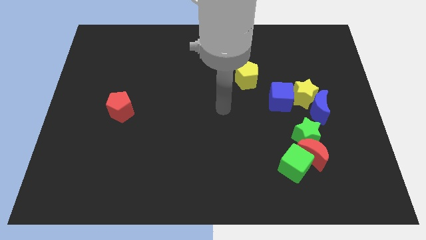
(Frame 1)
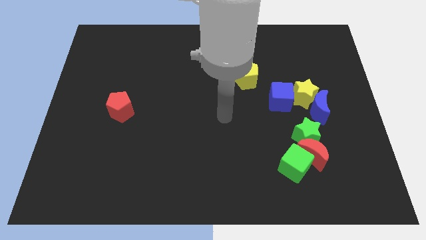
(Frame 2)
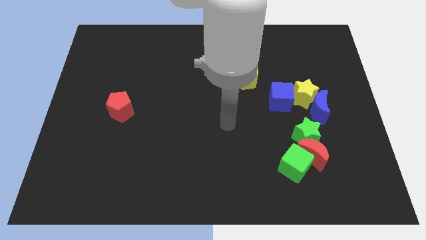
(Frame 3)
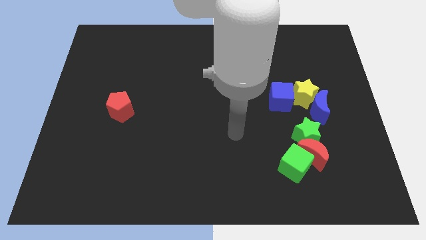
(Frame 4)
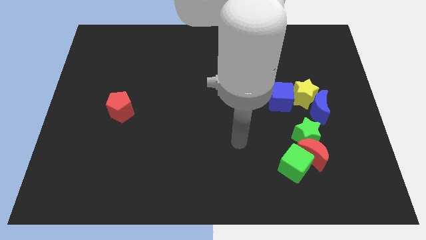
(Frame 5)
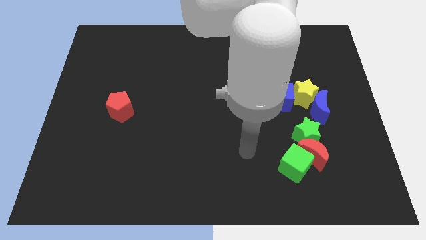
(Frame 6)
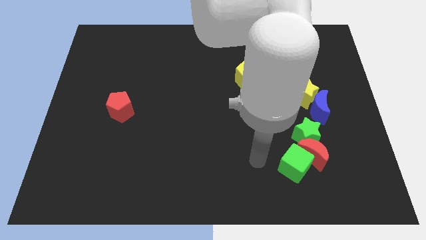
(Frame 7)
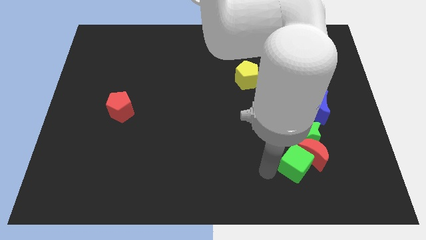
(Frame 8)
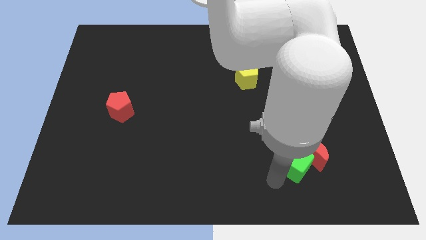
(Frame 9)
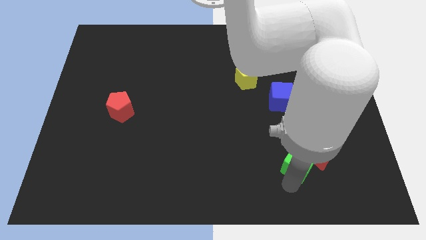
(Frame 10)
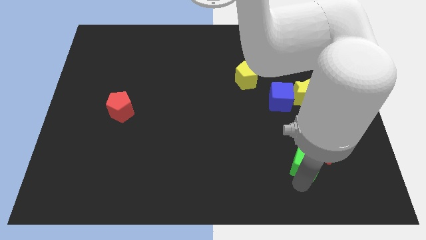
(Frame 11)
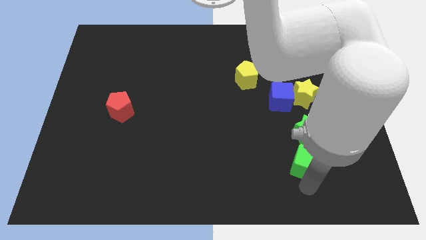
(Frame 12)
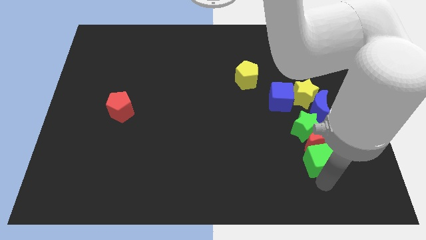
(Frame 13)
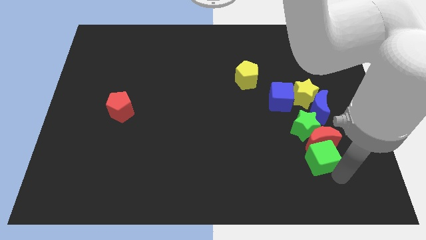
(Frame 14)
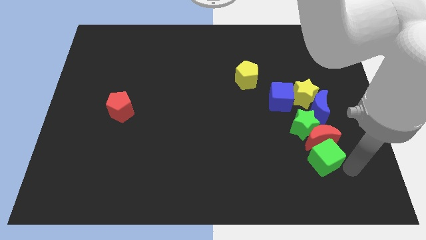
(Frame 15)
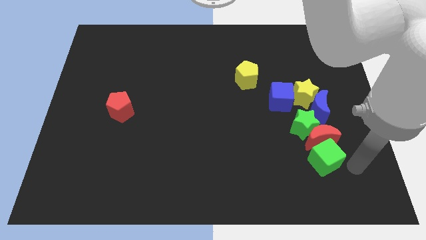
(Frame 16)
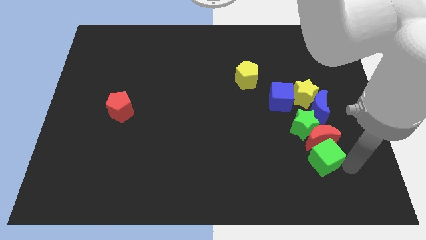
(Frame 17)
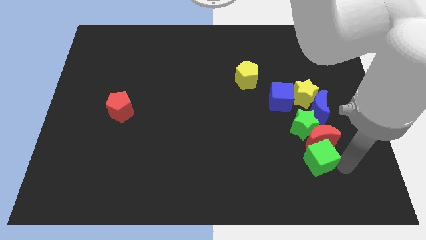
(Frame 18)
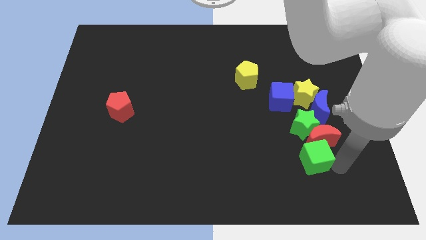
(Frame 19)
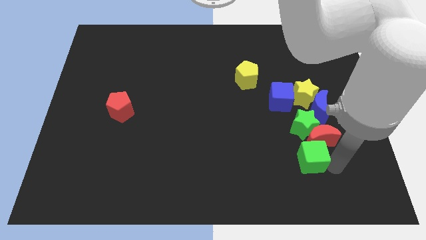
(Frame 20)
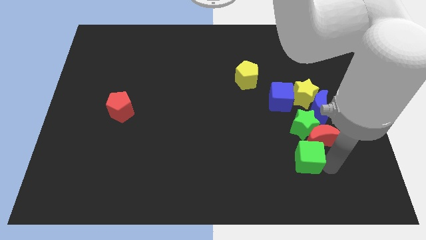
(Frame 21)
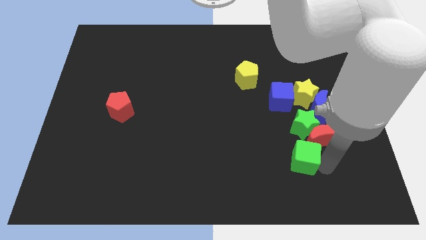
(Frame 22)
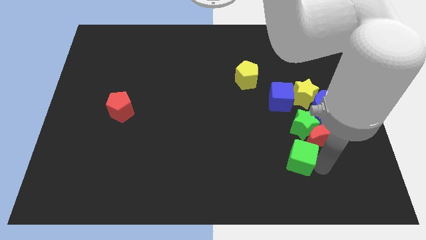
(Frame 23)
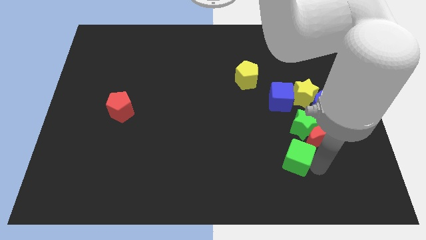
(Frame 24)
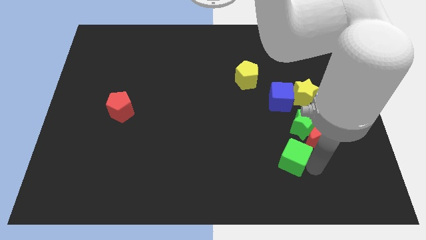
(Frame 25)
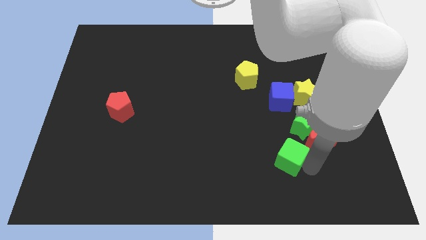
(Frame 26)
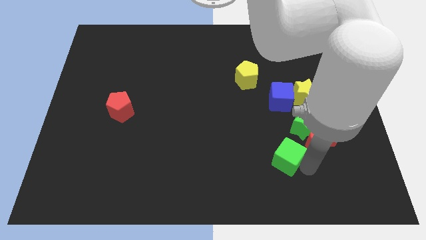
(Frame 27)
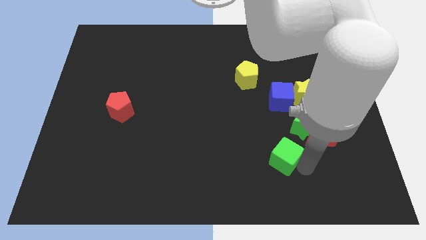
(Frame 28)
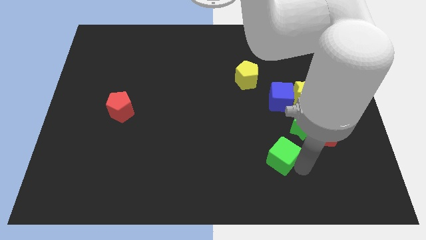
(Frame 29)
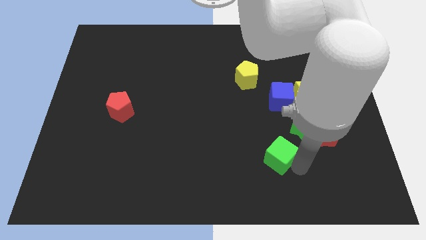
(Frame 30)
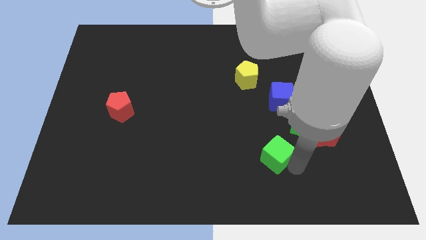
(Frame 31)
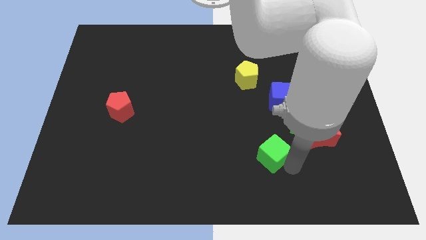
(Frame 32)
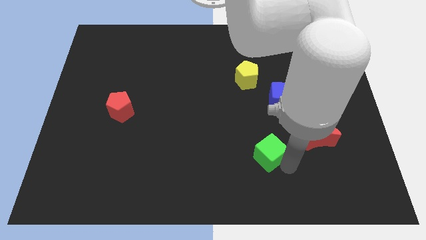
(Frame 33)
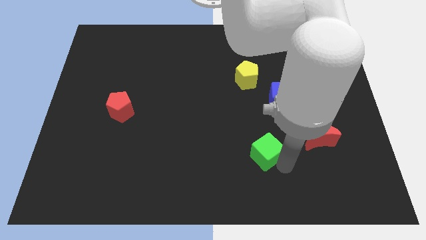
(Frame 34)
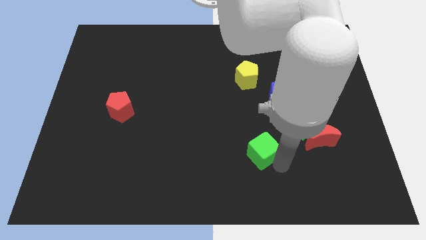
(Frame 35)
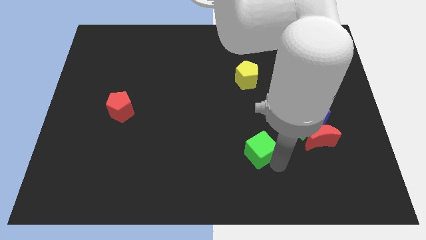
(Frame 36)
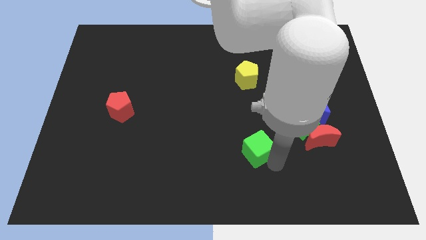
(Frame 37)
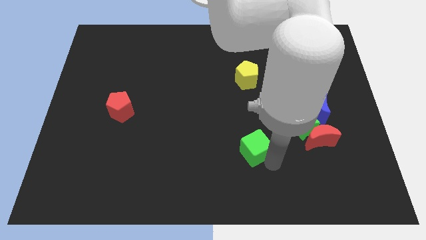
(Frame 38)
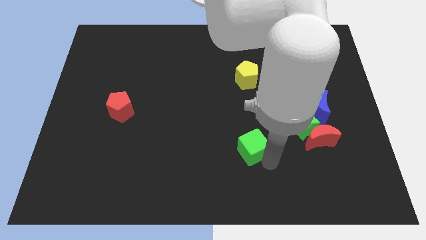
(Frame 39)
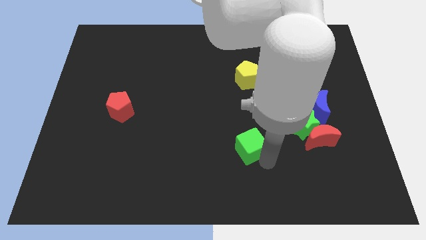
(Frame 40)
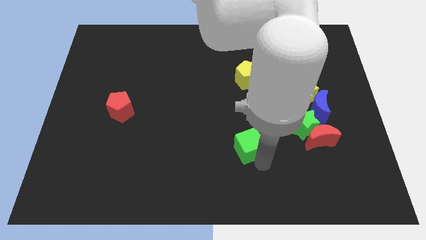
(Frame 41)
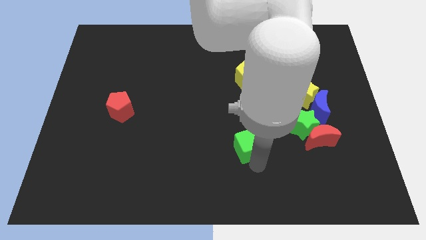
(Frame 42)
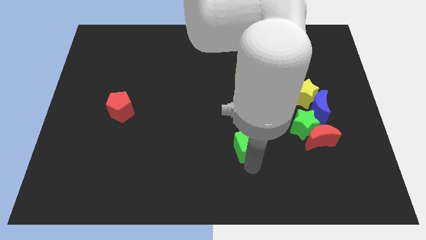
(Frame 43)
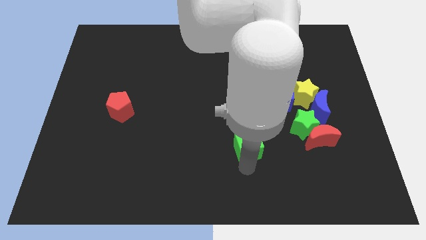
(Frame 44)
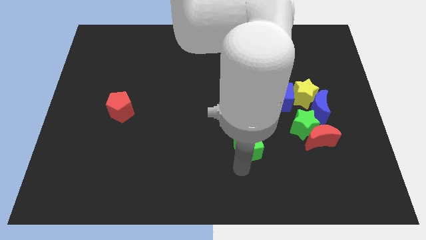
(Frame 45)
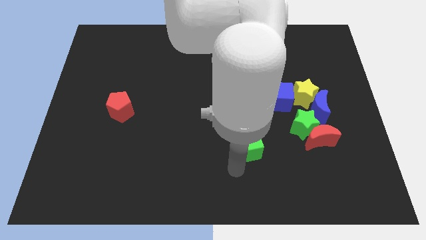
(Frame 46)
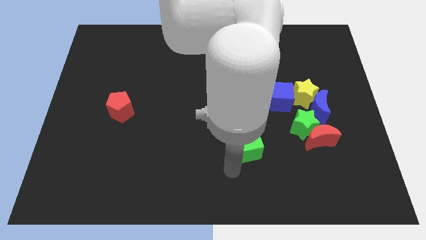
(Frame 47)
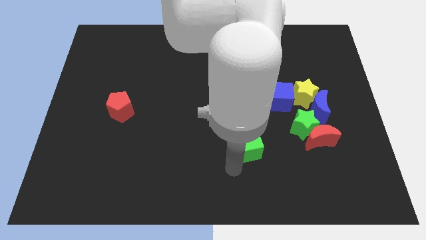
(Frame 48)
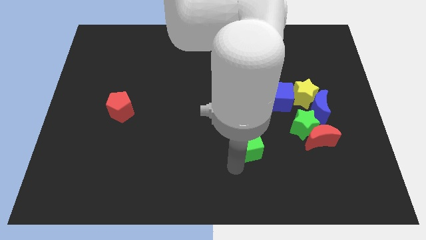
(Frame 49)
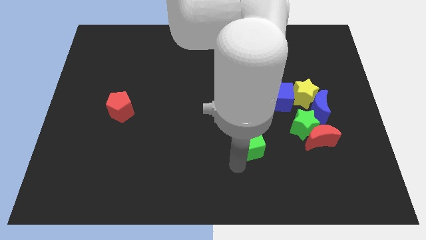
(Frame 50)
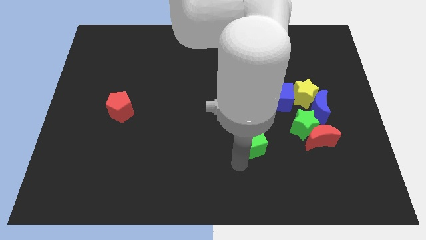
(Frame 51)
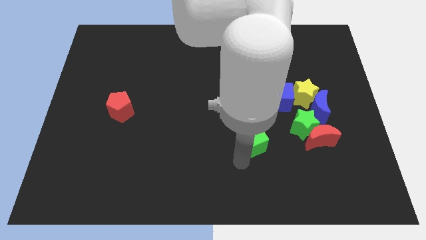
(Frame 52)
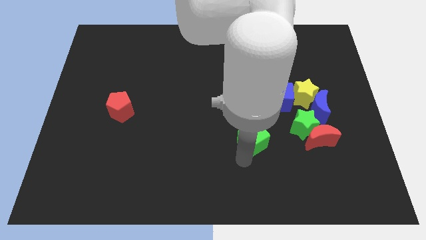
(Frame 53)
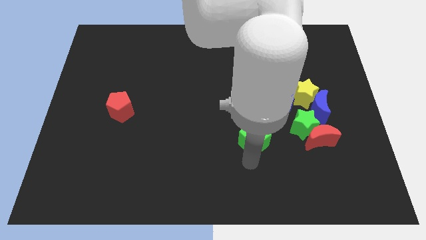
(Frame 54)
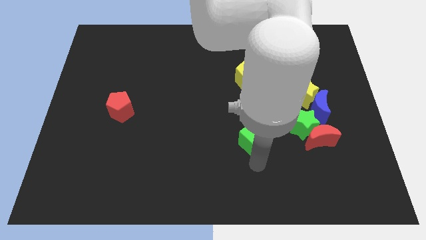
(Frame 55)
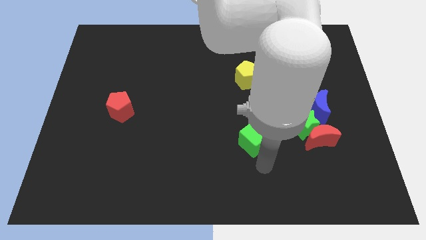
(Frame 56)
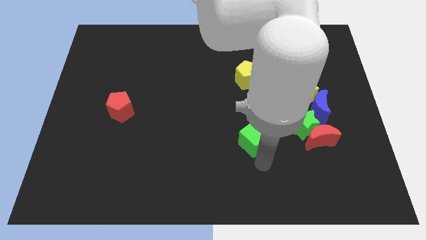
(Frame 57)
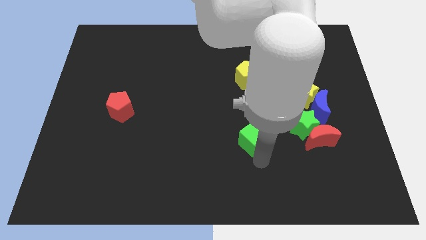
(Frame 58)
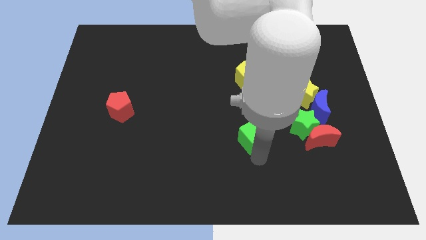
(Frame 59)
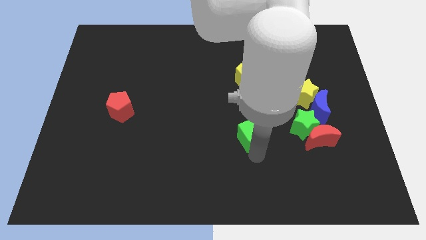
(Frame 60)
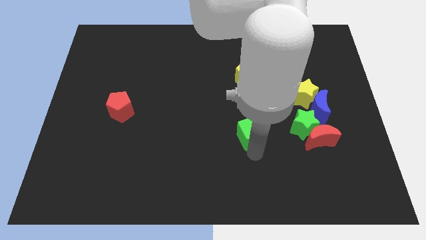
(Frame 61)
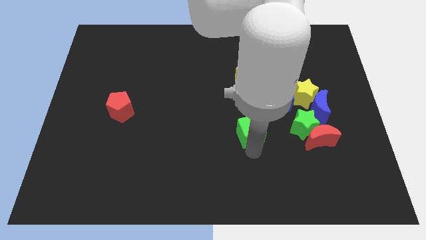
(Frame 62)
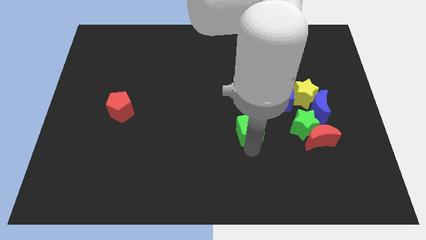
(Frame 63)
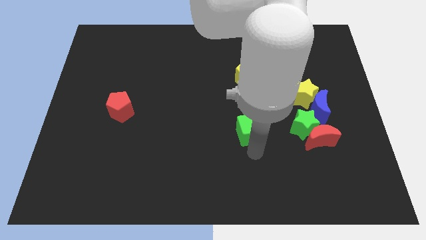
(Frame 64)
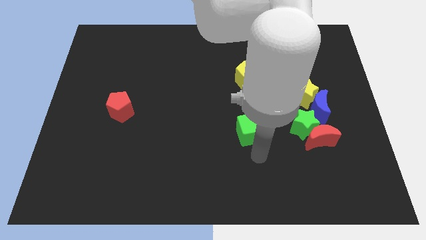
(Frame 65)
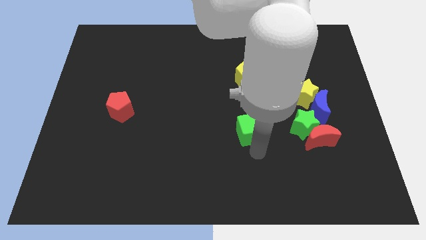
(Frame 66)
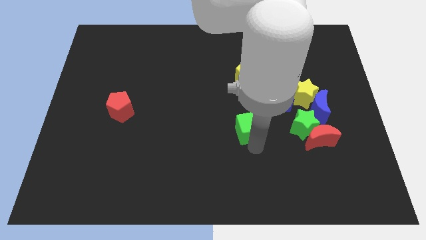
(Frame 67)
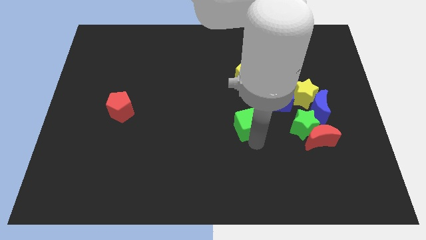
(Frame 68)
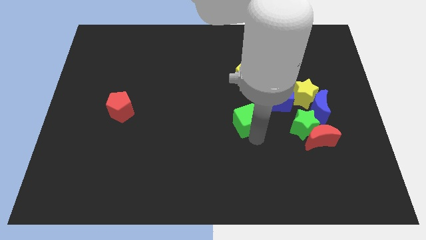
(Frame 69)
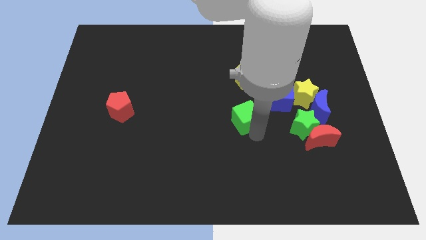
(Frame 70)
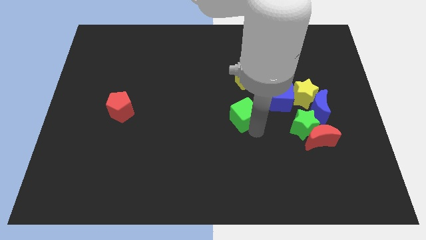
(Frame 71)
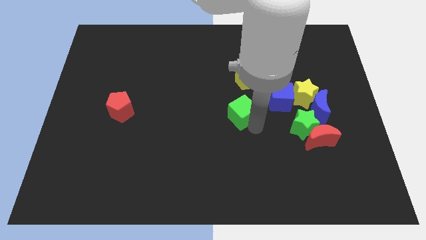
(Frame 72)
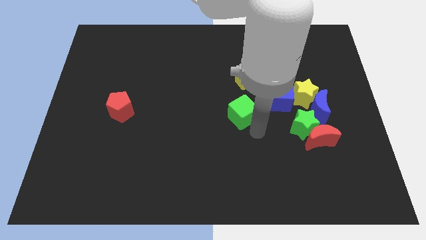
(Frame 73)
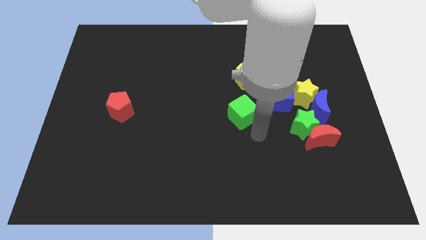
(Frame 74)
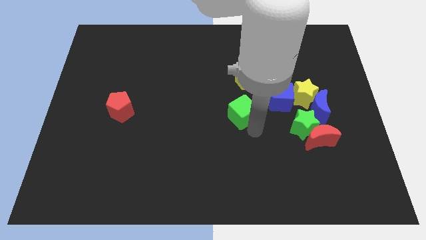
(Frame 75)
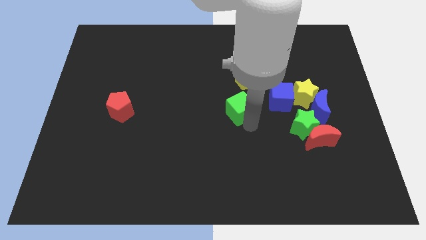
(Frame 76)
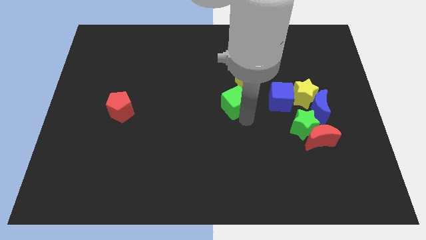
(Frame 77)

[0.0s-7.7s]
put the green cube diagonally down and to the left of the yellow pentagon

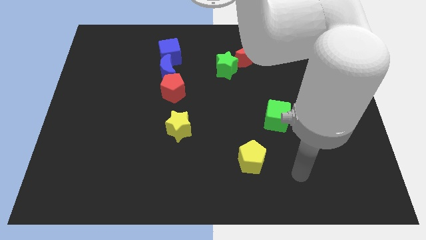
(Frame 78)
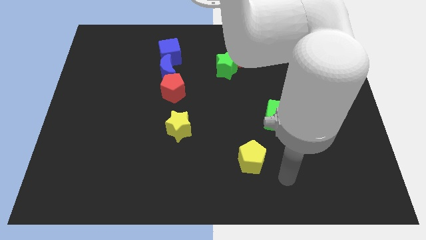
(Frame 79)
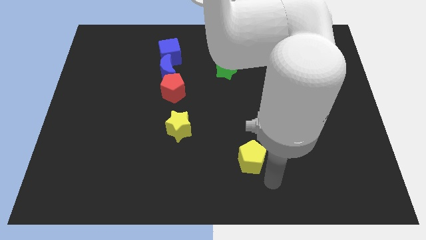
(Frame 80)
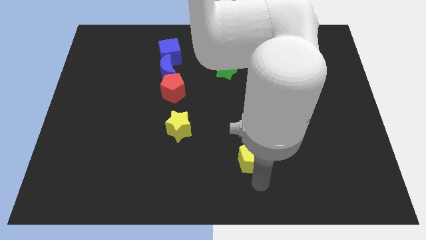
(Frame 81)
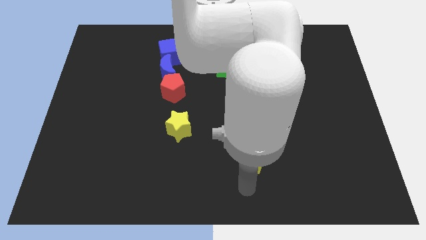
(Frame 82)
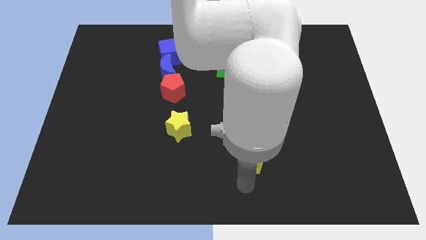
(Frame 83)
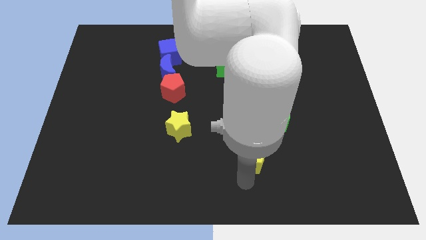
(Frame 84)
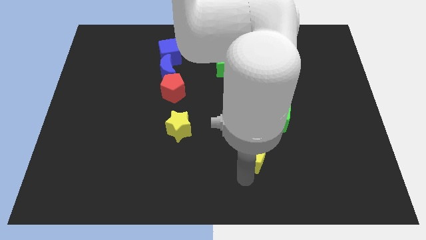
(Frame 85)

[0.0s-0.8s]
slide the yellow pentagon diagonally down and to the left of the green cube
